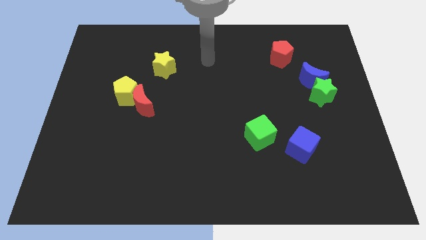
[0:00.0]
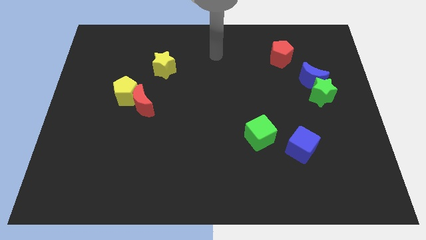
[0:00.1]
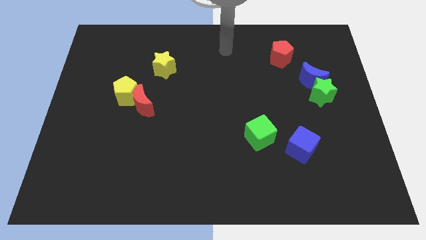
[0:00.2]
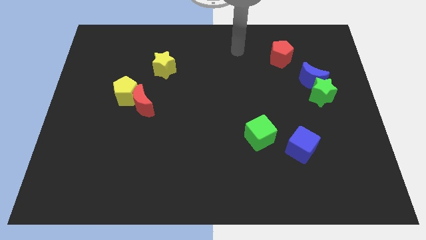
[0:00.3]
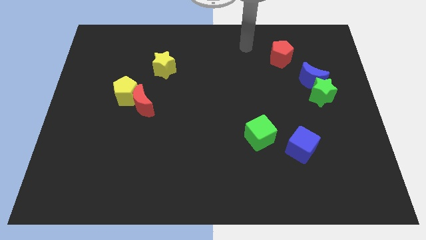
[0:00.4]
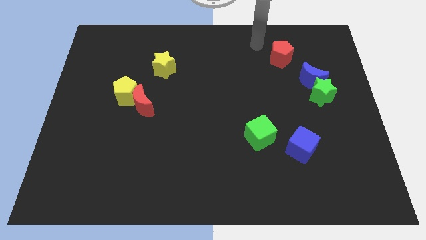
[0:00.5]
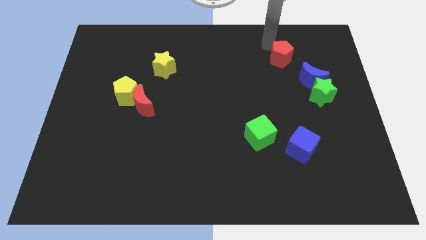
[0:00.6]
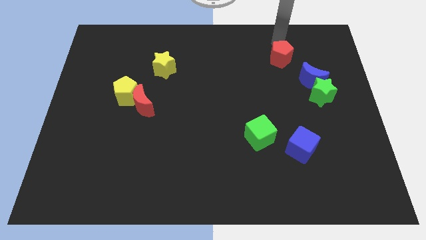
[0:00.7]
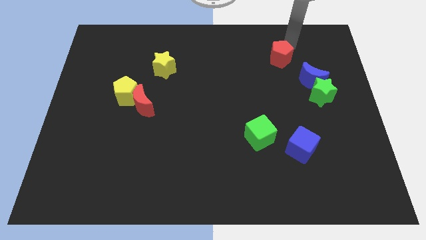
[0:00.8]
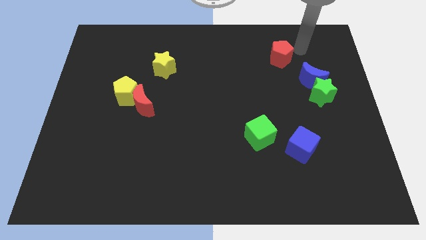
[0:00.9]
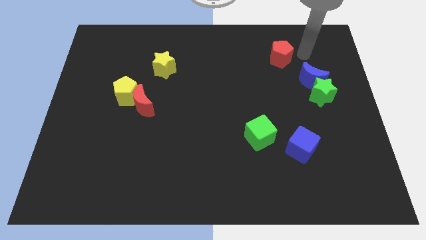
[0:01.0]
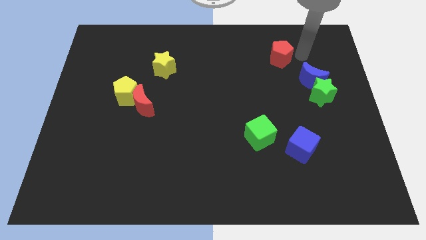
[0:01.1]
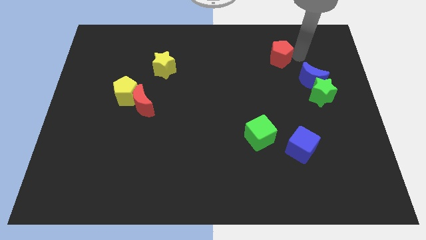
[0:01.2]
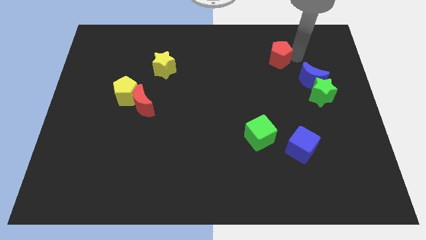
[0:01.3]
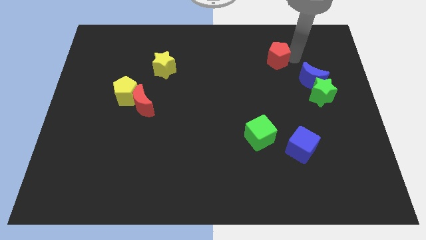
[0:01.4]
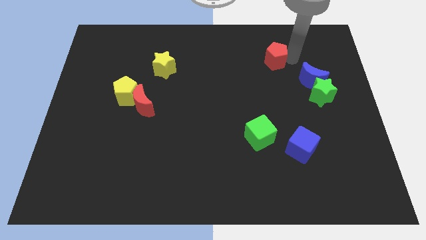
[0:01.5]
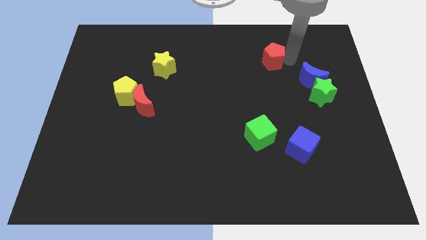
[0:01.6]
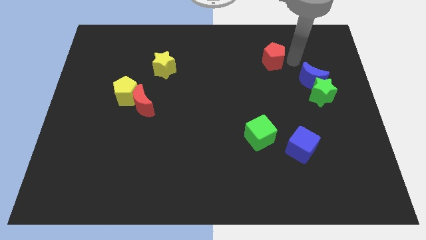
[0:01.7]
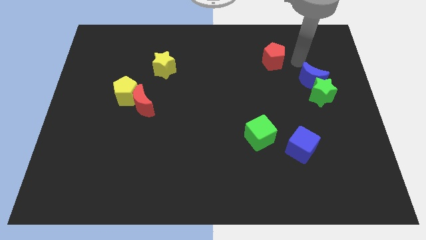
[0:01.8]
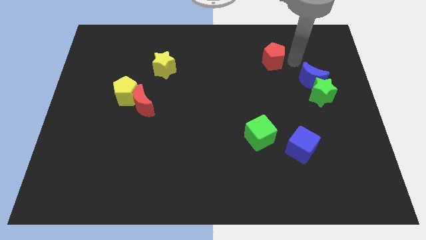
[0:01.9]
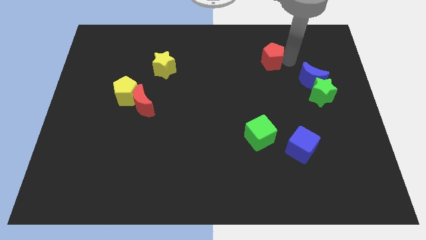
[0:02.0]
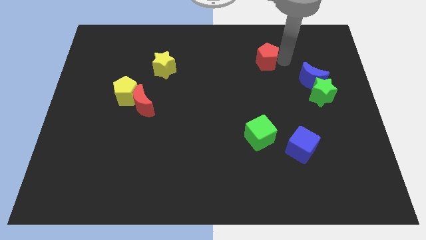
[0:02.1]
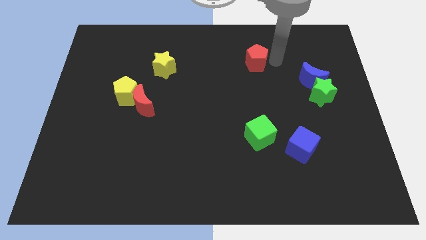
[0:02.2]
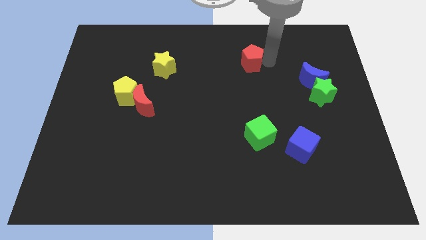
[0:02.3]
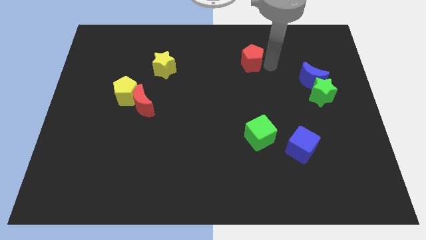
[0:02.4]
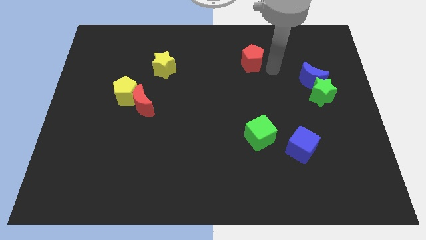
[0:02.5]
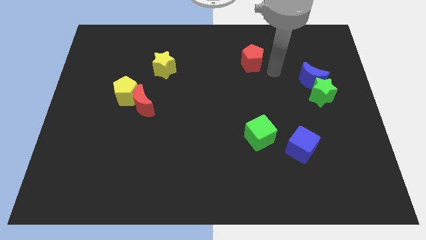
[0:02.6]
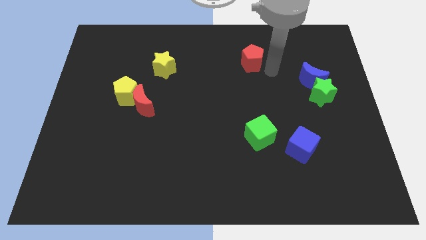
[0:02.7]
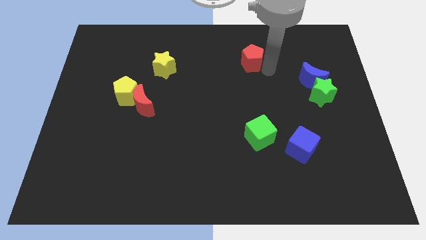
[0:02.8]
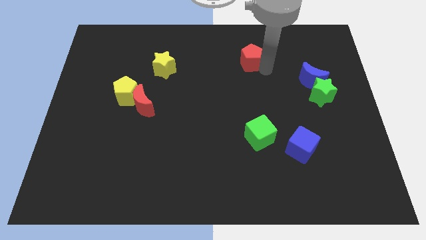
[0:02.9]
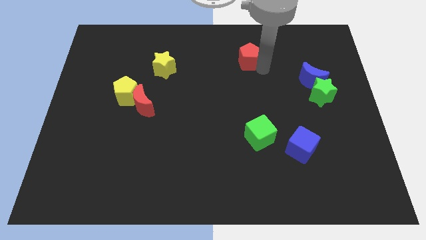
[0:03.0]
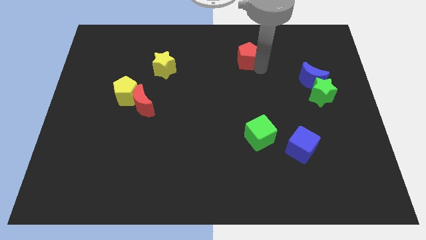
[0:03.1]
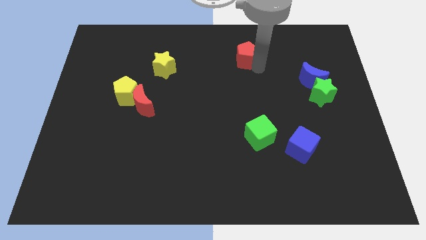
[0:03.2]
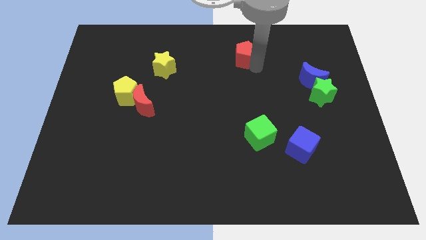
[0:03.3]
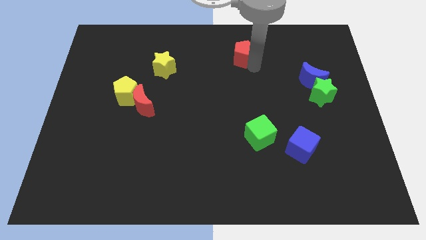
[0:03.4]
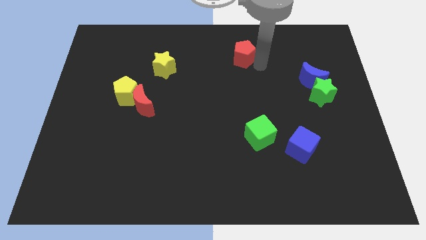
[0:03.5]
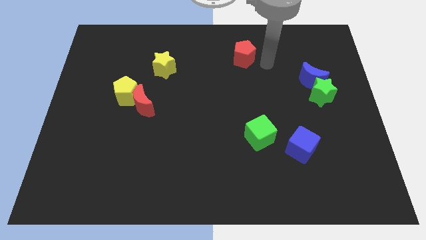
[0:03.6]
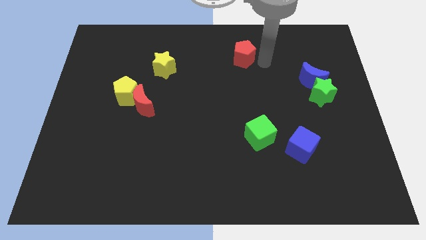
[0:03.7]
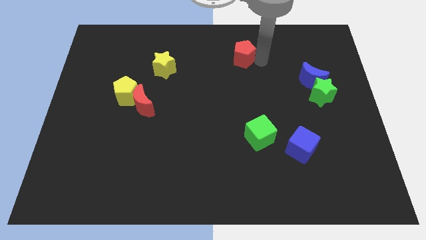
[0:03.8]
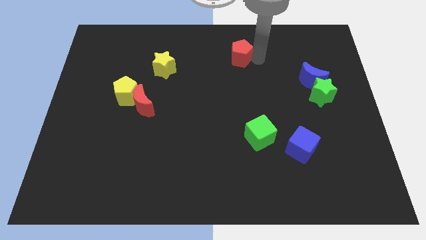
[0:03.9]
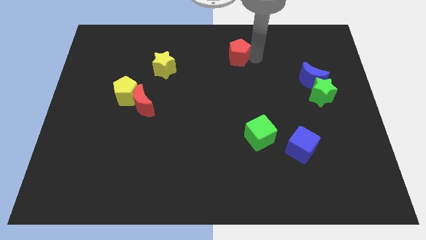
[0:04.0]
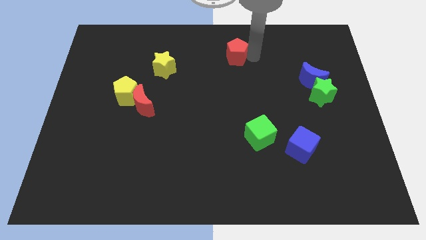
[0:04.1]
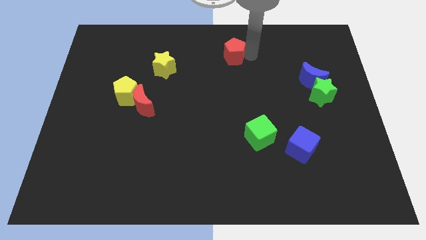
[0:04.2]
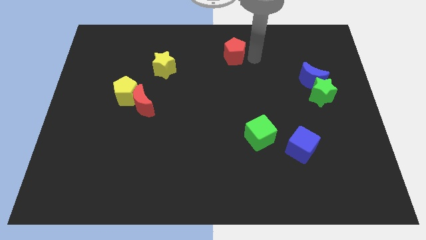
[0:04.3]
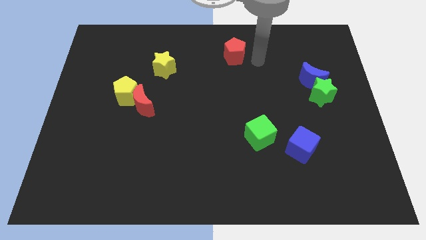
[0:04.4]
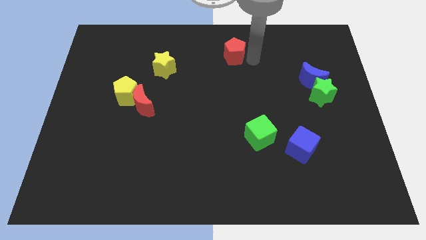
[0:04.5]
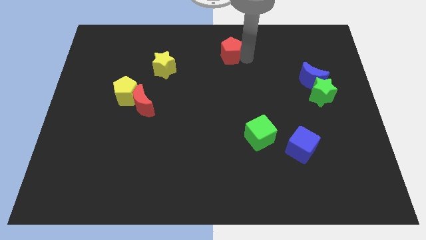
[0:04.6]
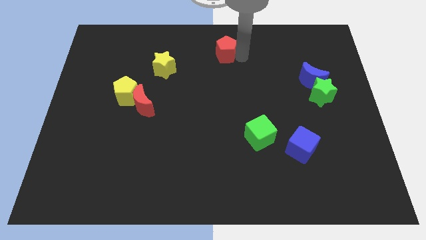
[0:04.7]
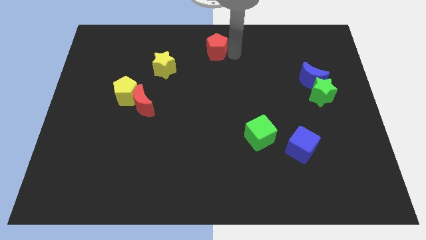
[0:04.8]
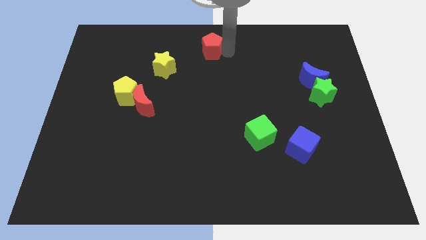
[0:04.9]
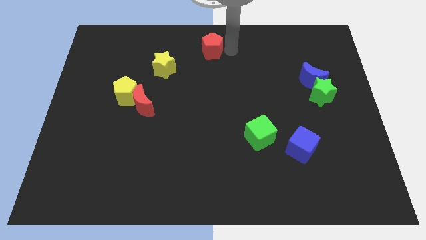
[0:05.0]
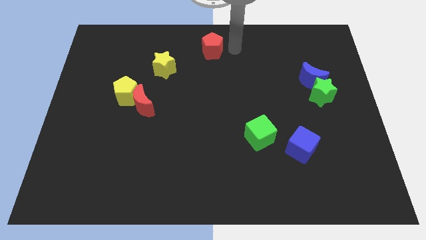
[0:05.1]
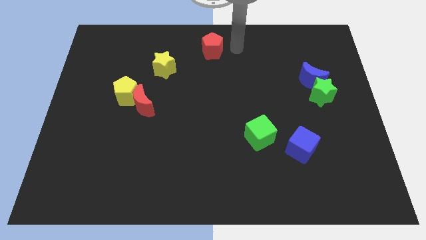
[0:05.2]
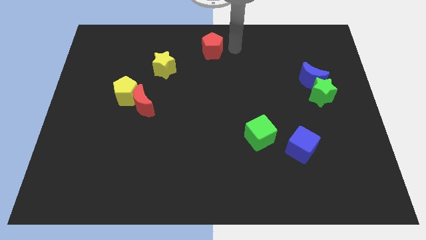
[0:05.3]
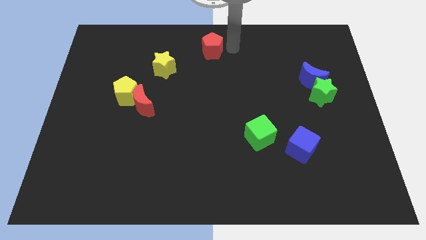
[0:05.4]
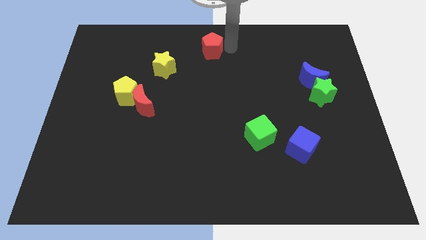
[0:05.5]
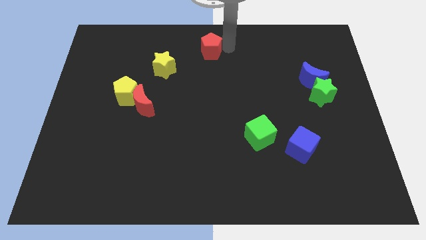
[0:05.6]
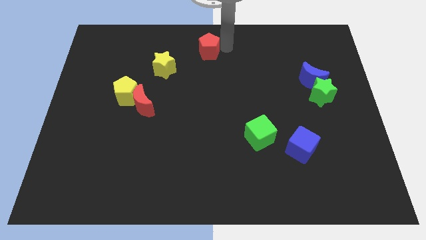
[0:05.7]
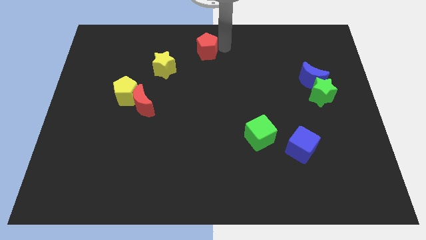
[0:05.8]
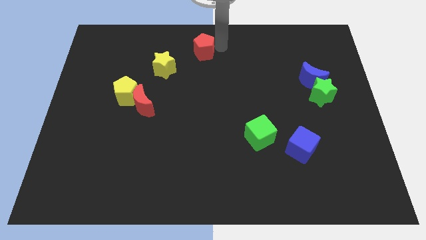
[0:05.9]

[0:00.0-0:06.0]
move the red pentagon left

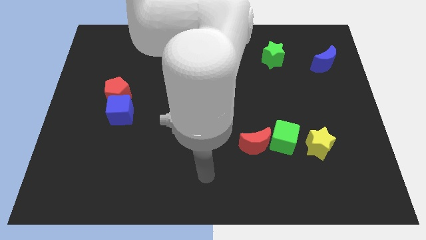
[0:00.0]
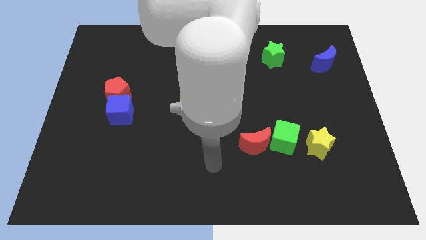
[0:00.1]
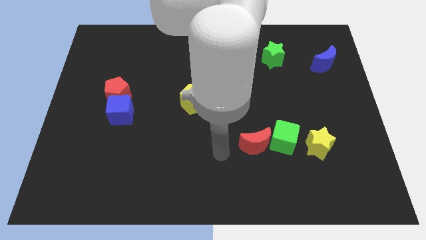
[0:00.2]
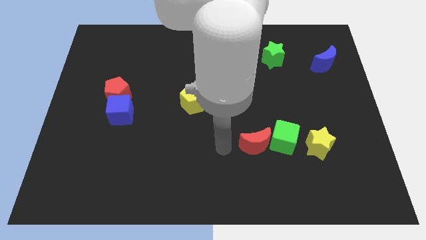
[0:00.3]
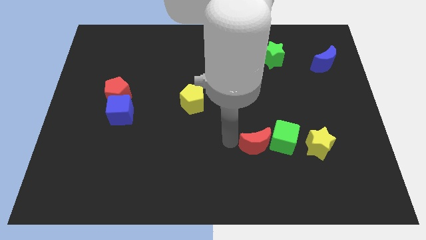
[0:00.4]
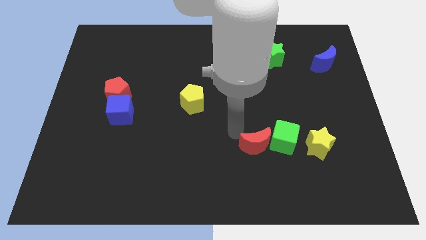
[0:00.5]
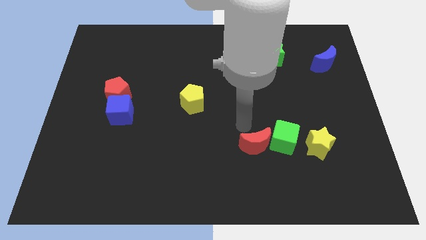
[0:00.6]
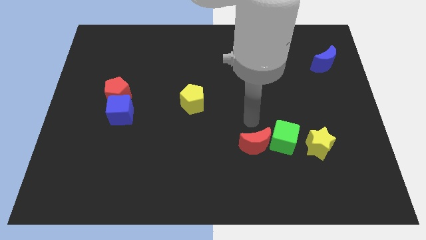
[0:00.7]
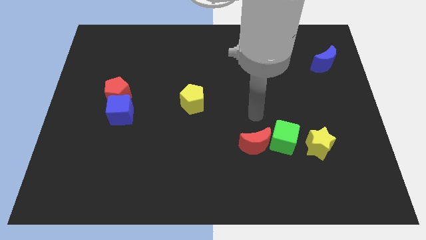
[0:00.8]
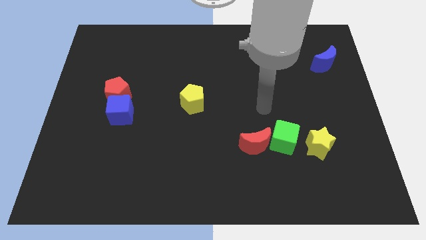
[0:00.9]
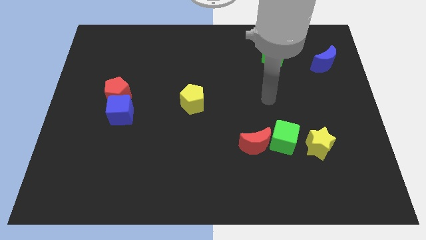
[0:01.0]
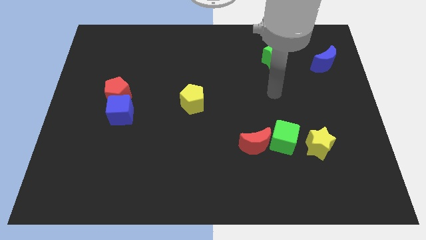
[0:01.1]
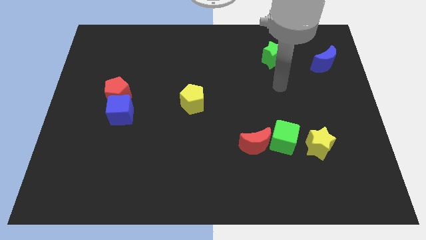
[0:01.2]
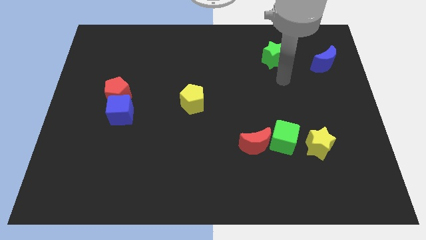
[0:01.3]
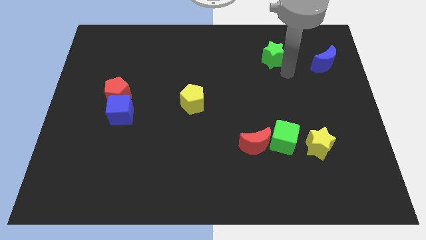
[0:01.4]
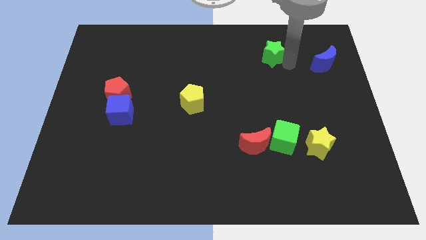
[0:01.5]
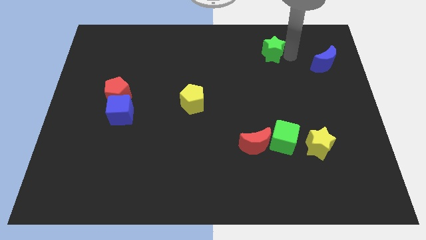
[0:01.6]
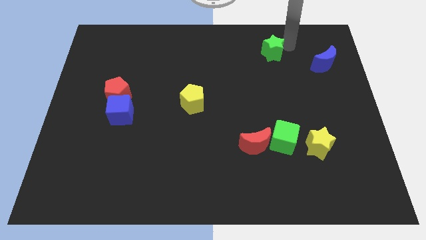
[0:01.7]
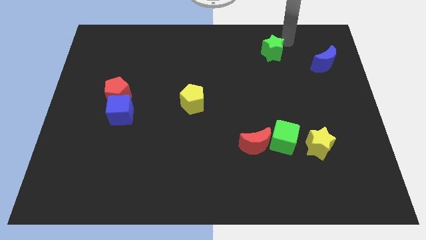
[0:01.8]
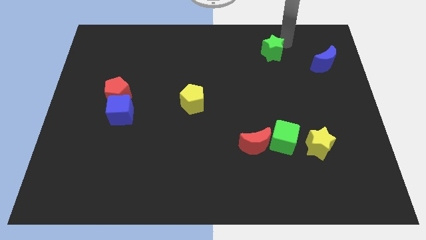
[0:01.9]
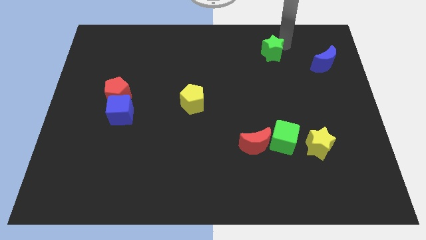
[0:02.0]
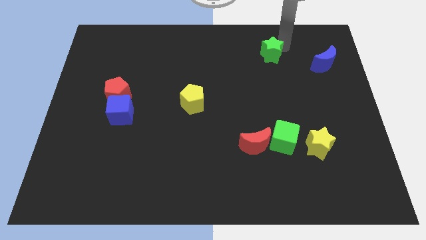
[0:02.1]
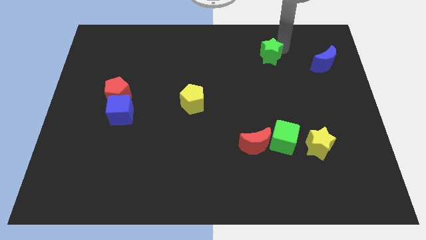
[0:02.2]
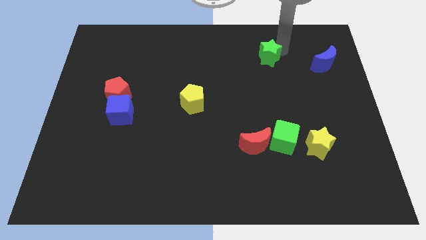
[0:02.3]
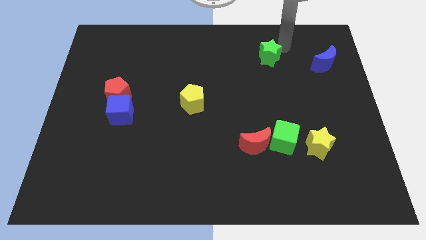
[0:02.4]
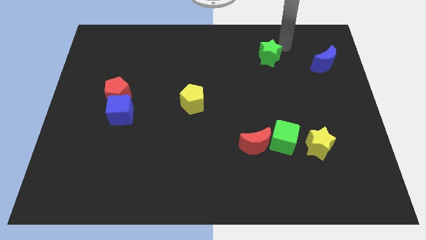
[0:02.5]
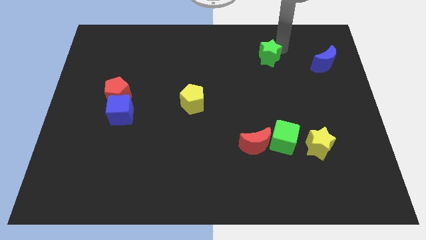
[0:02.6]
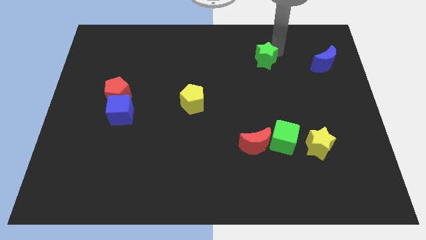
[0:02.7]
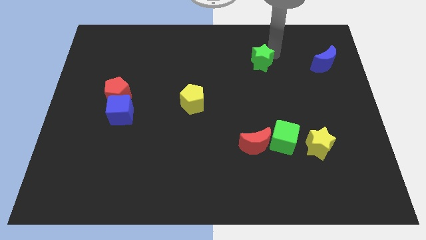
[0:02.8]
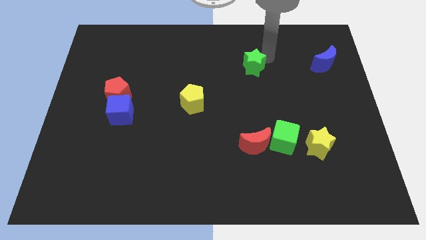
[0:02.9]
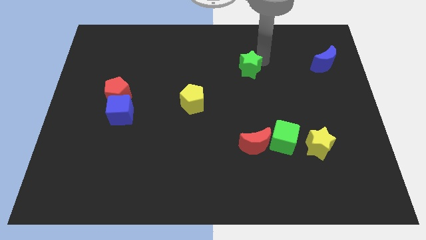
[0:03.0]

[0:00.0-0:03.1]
move the green star diagonally downwards and left slightly
